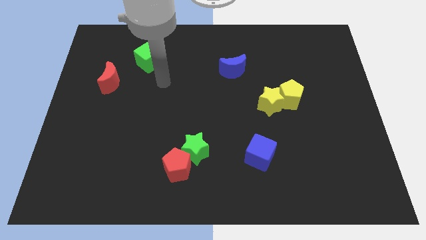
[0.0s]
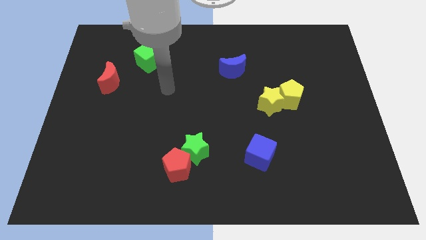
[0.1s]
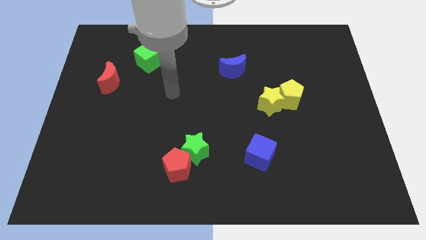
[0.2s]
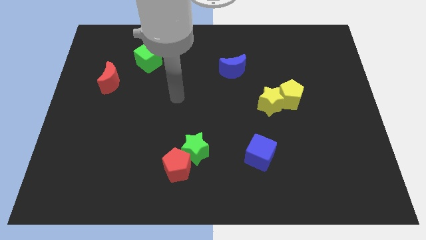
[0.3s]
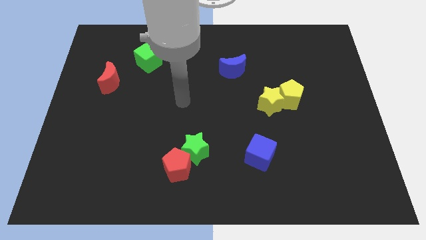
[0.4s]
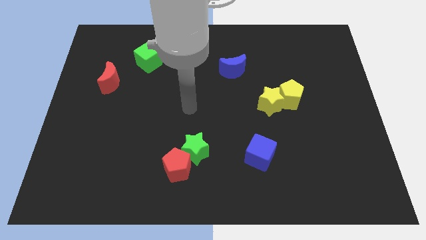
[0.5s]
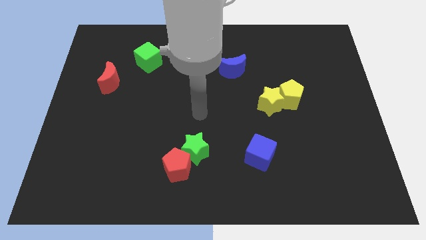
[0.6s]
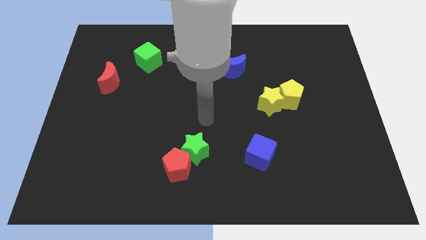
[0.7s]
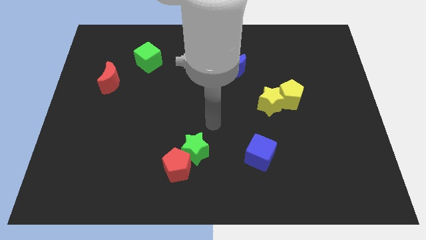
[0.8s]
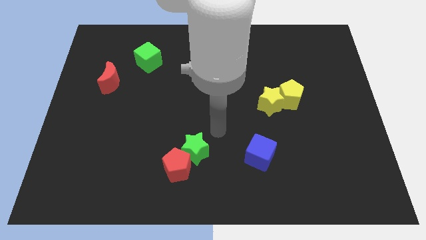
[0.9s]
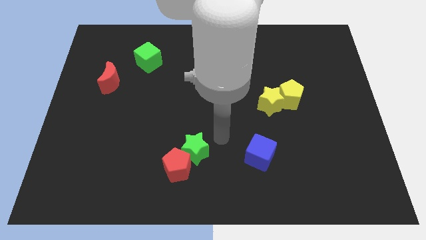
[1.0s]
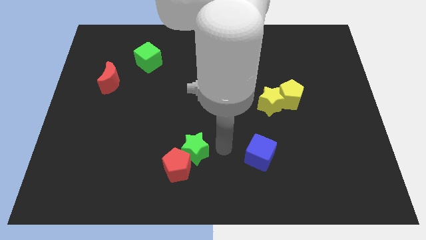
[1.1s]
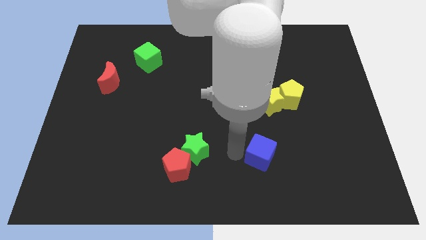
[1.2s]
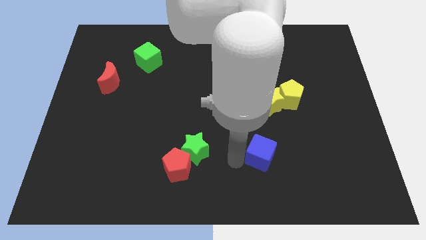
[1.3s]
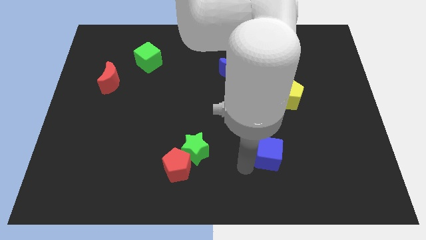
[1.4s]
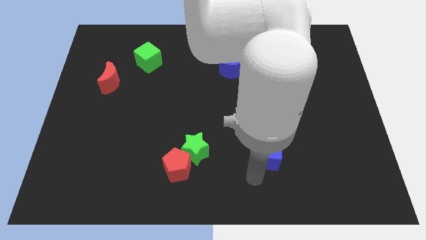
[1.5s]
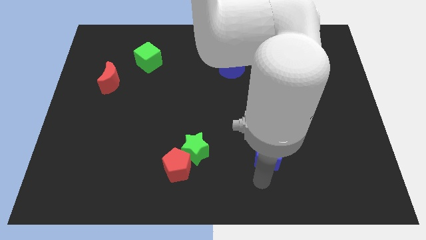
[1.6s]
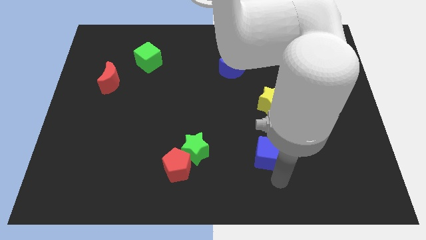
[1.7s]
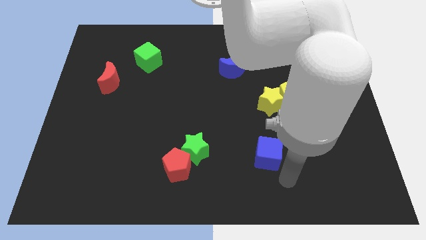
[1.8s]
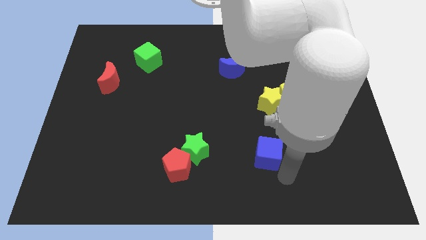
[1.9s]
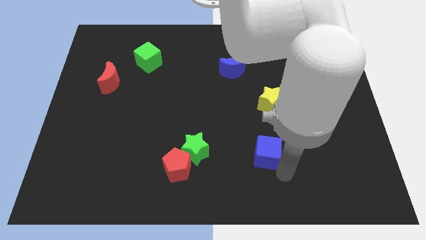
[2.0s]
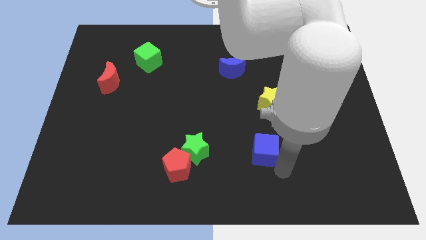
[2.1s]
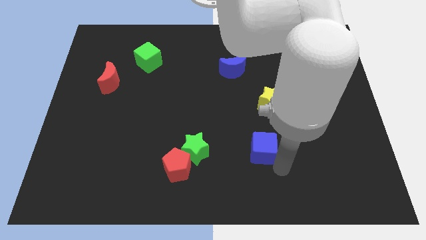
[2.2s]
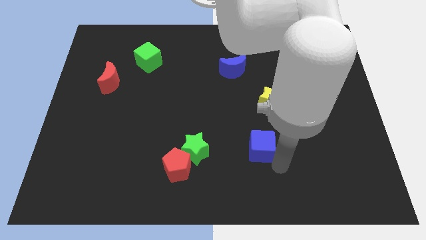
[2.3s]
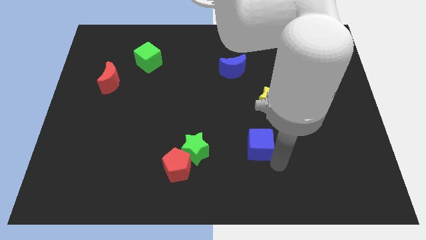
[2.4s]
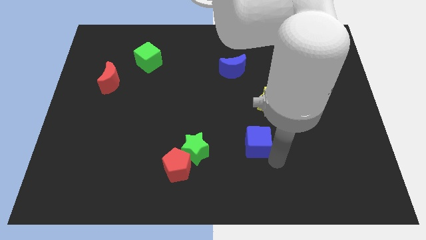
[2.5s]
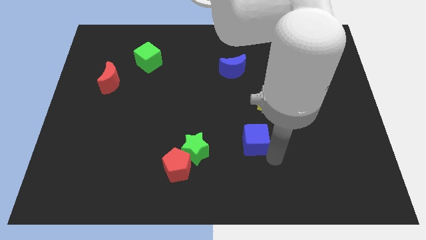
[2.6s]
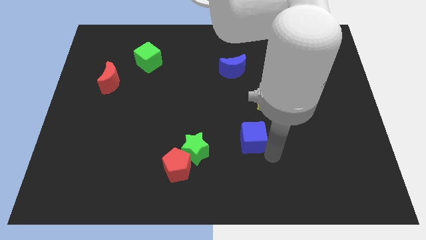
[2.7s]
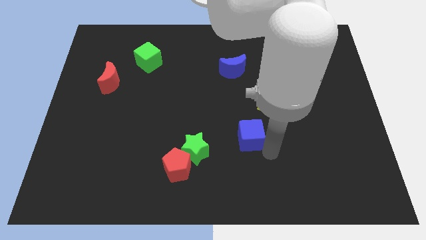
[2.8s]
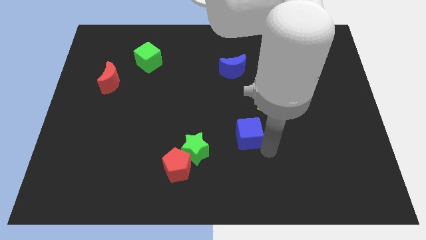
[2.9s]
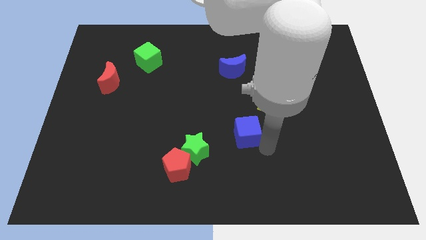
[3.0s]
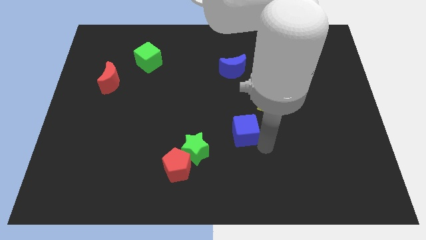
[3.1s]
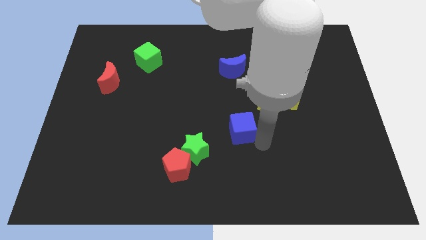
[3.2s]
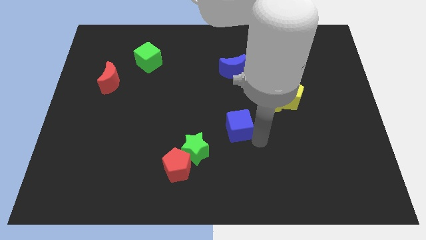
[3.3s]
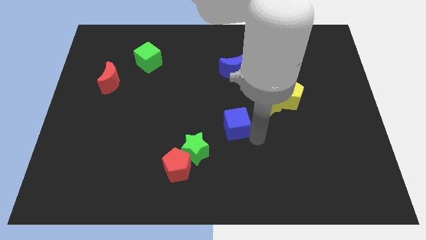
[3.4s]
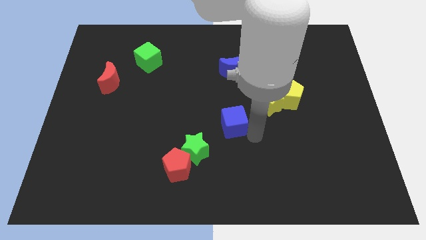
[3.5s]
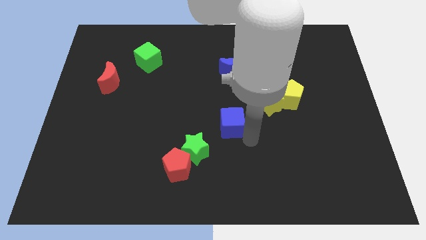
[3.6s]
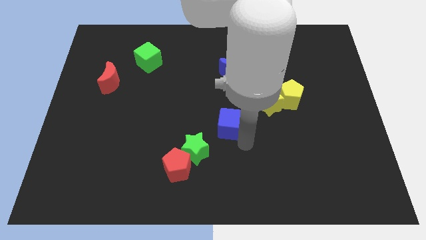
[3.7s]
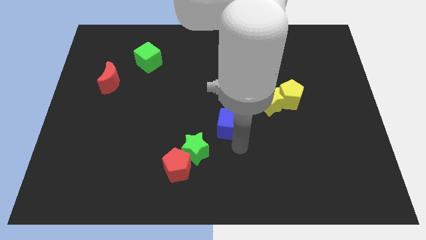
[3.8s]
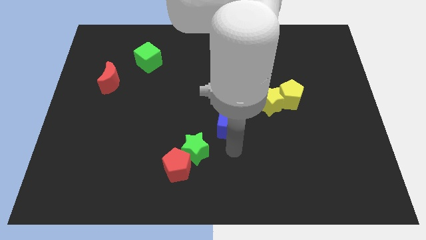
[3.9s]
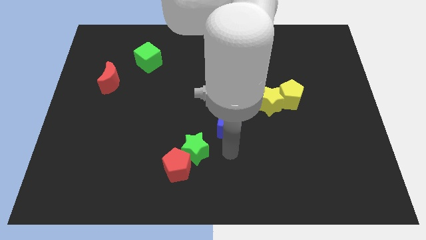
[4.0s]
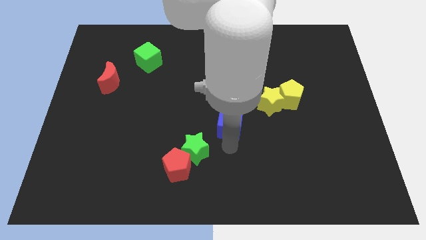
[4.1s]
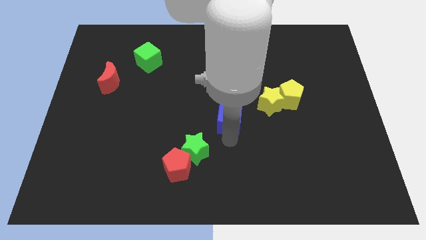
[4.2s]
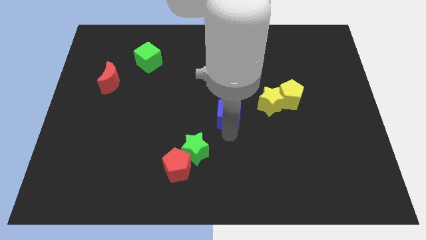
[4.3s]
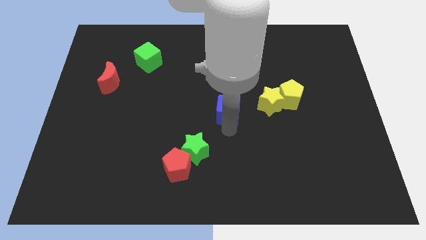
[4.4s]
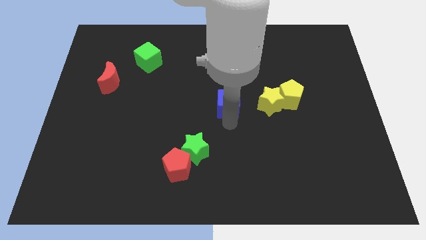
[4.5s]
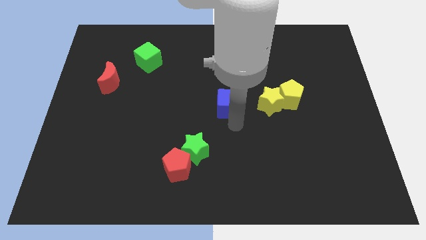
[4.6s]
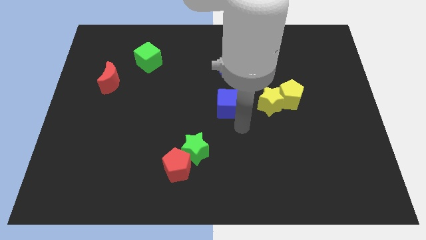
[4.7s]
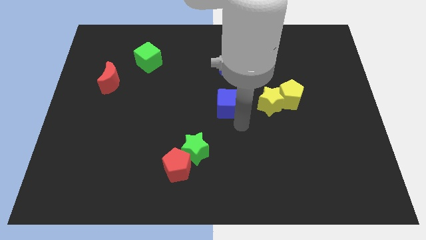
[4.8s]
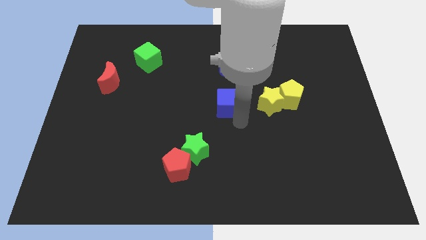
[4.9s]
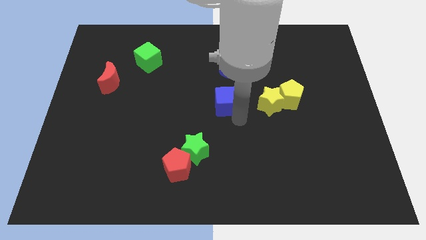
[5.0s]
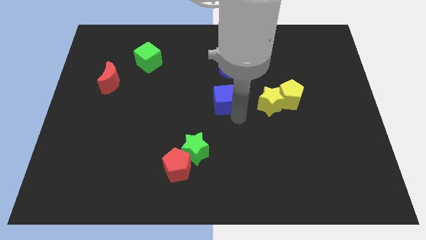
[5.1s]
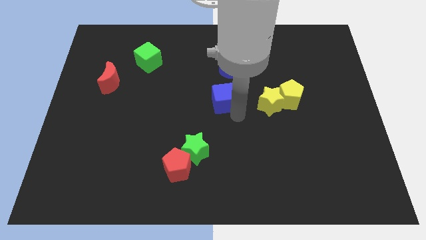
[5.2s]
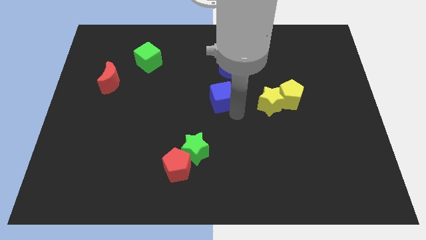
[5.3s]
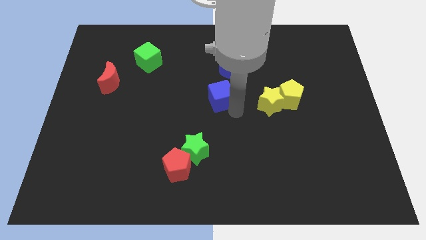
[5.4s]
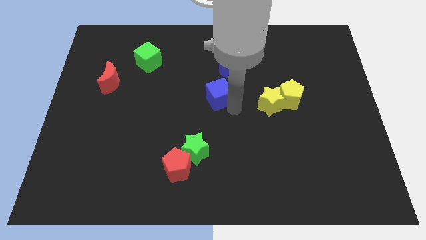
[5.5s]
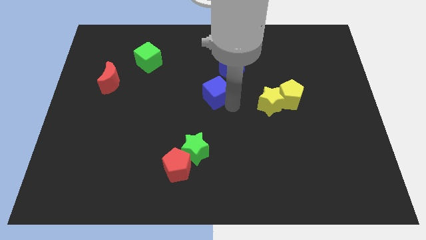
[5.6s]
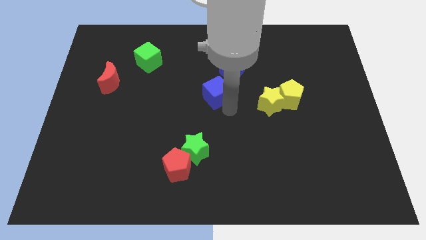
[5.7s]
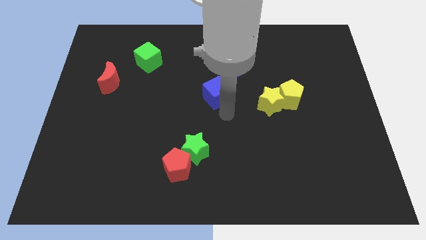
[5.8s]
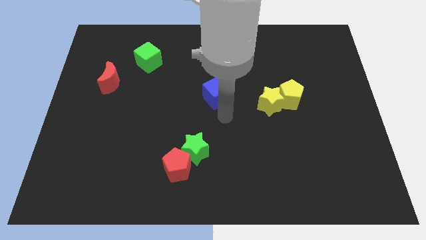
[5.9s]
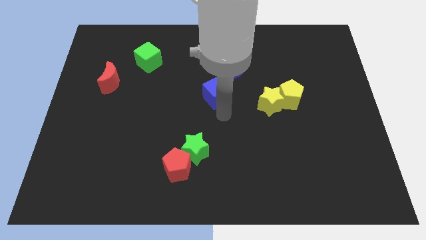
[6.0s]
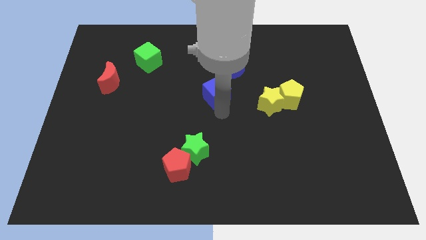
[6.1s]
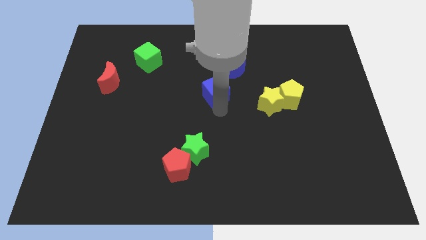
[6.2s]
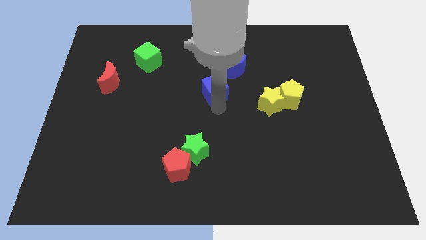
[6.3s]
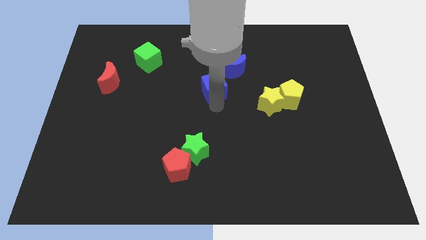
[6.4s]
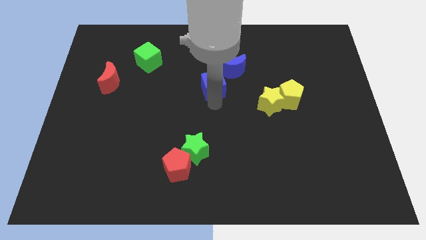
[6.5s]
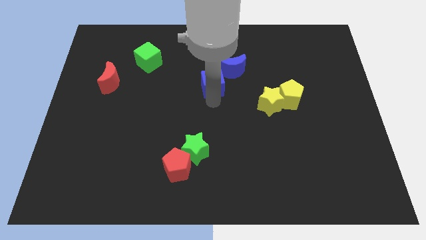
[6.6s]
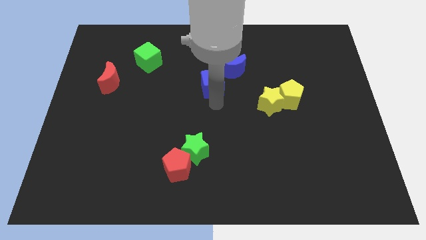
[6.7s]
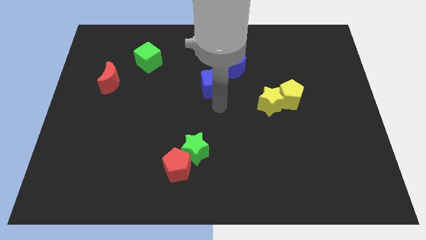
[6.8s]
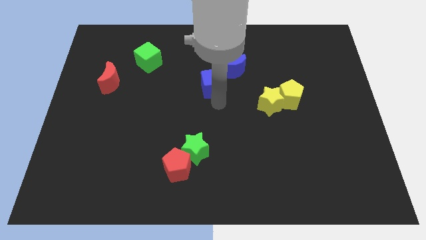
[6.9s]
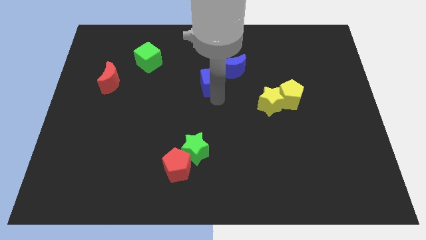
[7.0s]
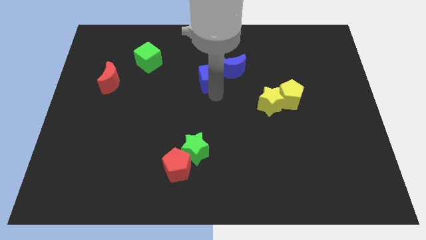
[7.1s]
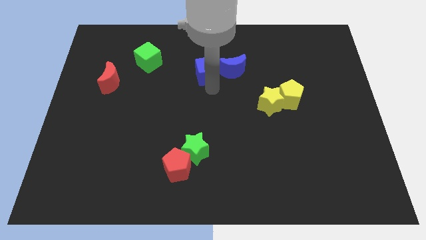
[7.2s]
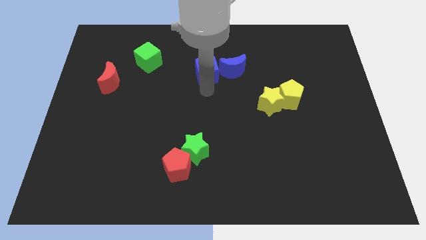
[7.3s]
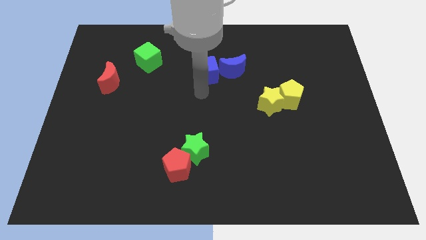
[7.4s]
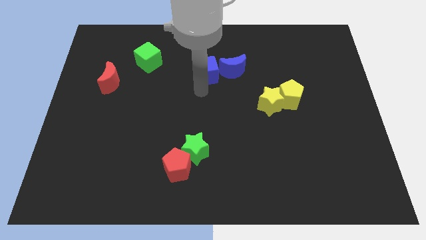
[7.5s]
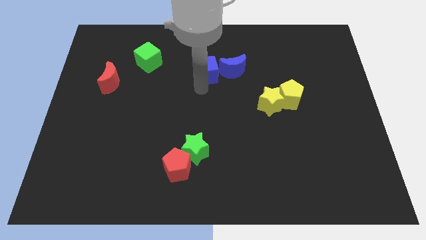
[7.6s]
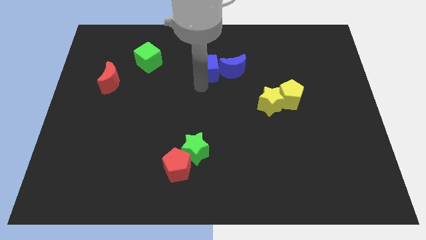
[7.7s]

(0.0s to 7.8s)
move the blue cube to the top left side of the blue moon
